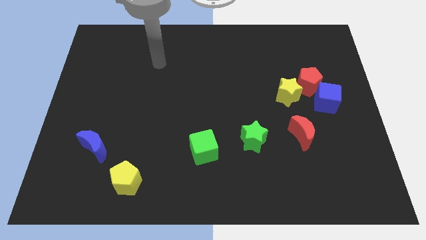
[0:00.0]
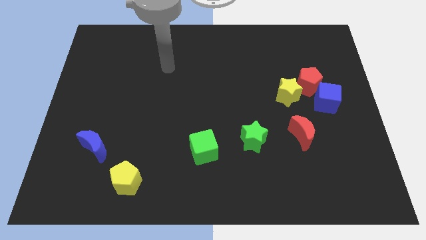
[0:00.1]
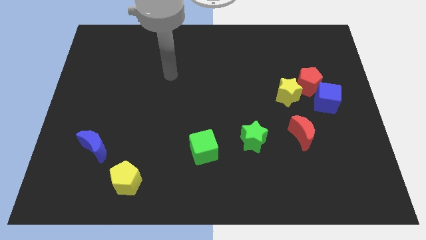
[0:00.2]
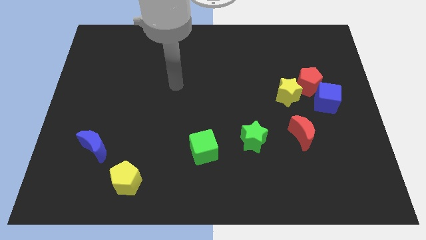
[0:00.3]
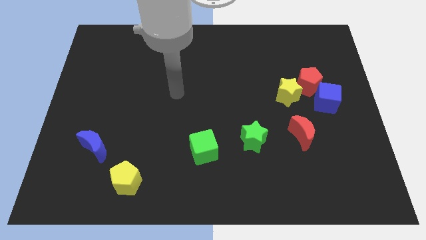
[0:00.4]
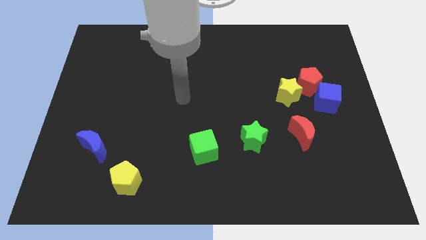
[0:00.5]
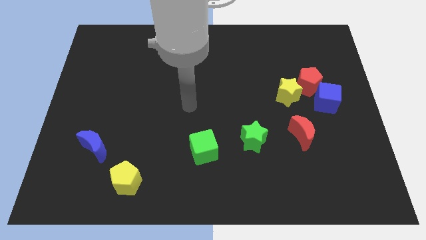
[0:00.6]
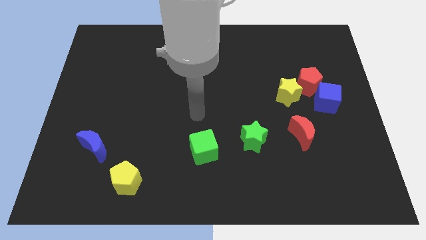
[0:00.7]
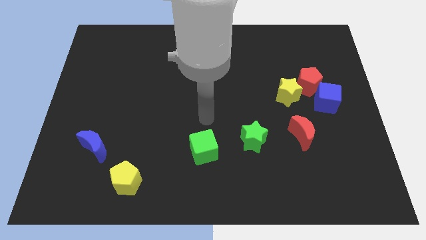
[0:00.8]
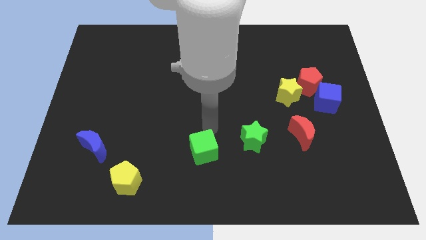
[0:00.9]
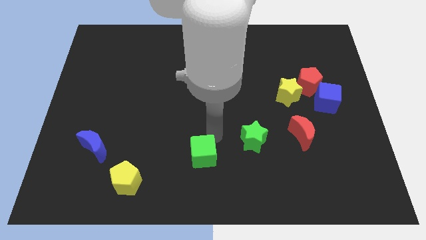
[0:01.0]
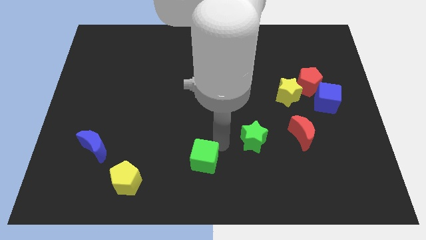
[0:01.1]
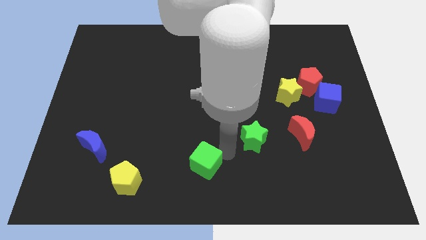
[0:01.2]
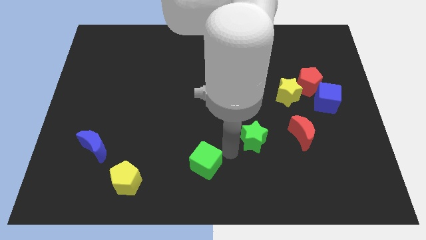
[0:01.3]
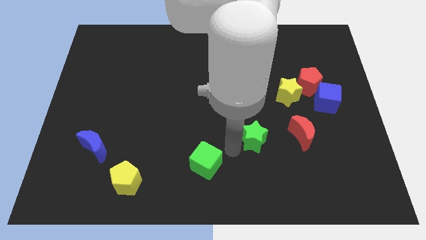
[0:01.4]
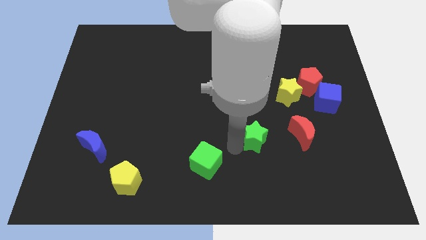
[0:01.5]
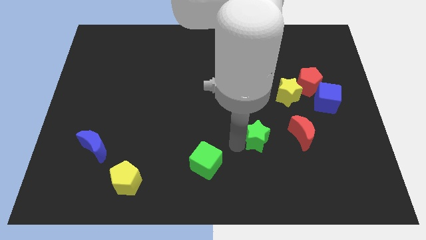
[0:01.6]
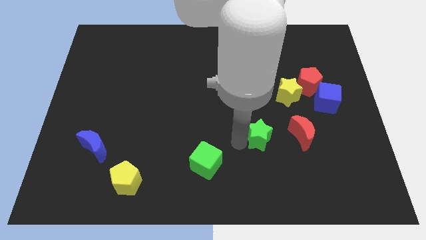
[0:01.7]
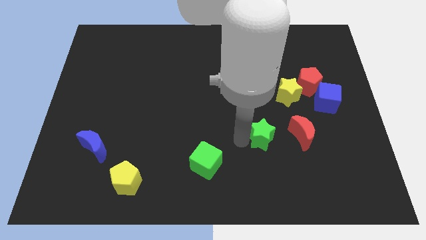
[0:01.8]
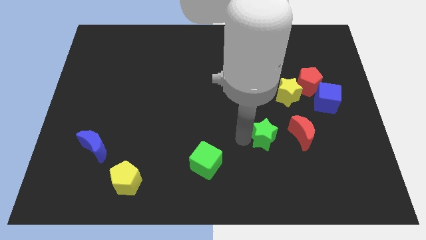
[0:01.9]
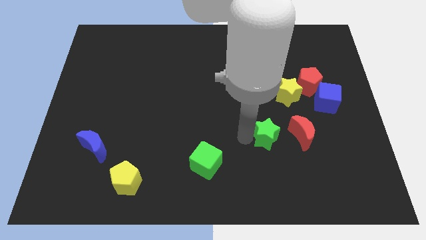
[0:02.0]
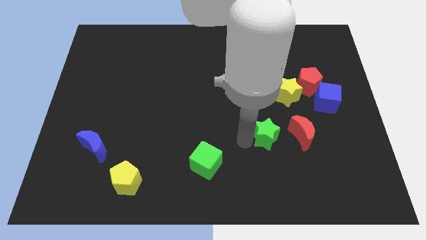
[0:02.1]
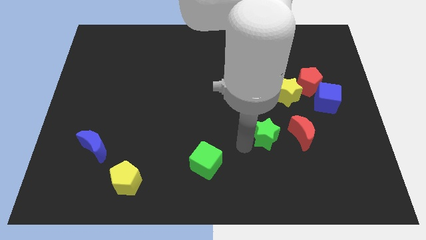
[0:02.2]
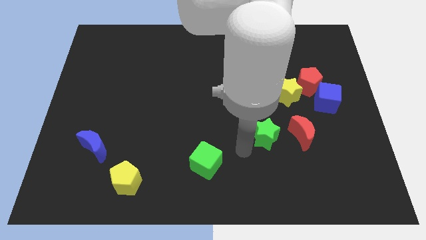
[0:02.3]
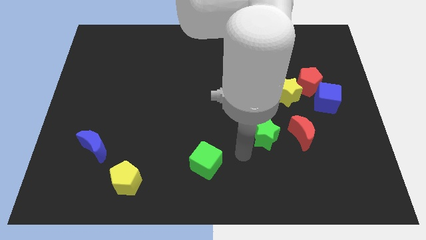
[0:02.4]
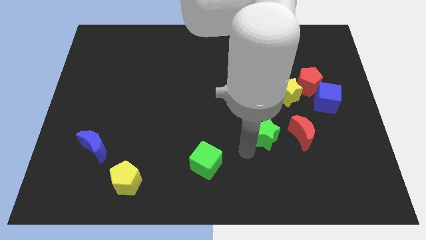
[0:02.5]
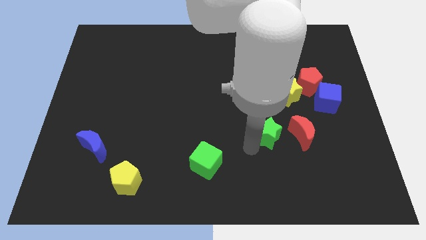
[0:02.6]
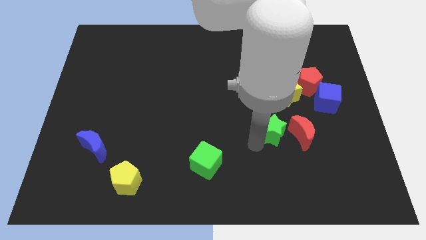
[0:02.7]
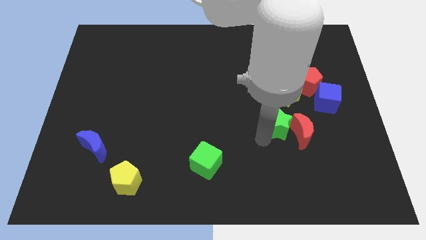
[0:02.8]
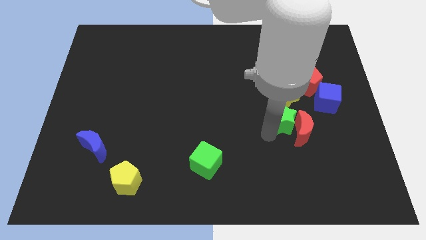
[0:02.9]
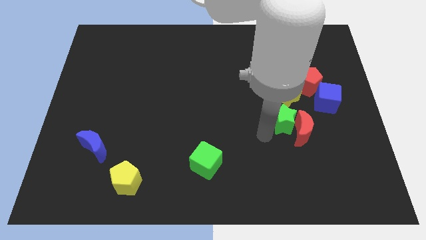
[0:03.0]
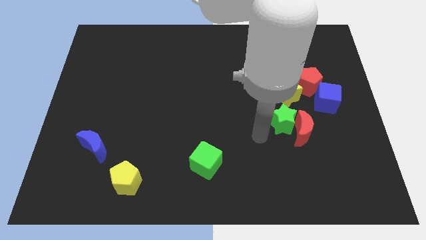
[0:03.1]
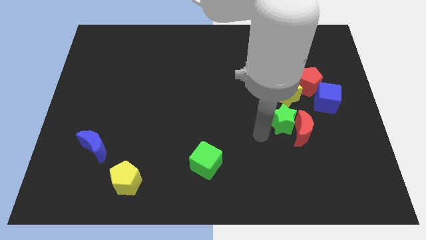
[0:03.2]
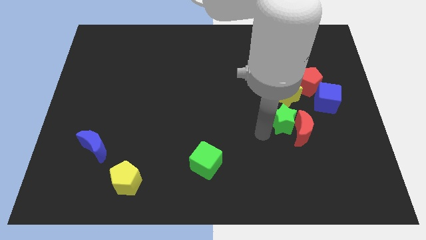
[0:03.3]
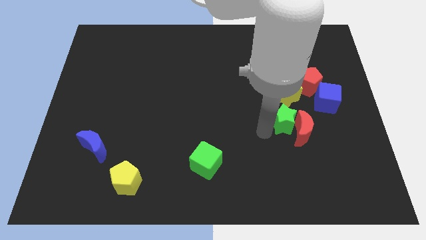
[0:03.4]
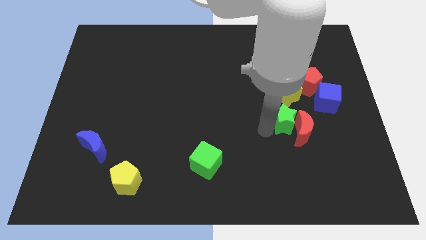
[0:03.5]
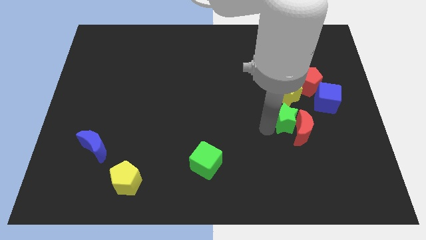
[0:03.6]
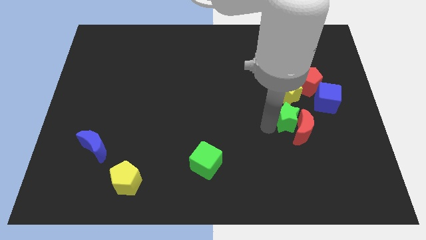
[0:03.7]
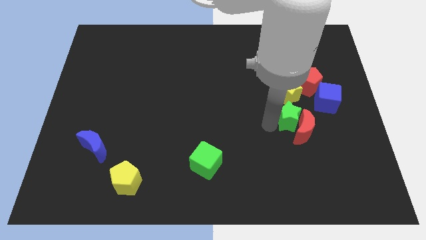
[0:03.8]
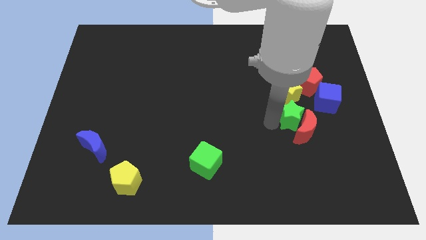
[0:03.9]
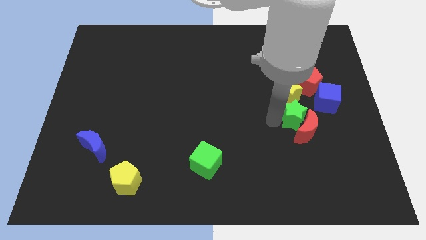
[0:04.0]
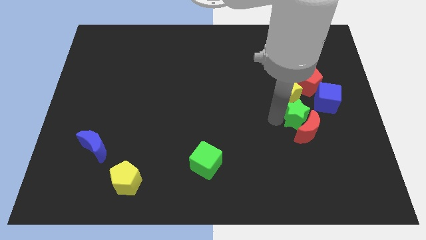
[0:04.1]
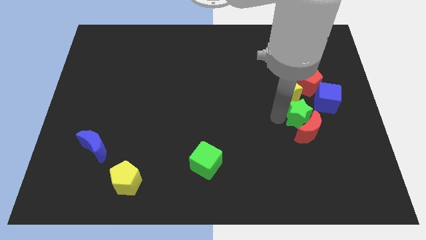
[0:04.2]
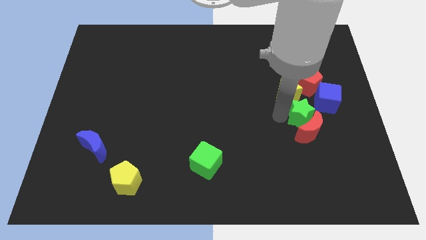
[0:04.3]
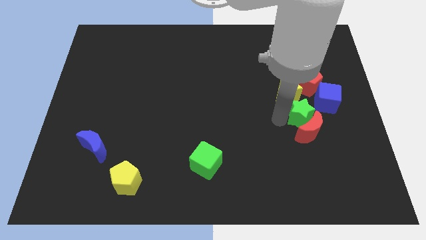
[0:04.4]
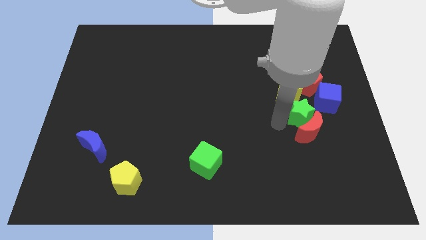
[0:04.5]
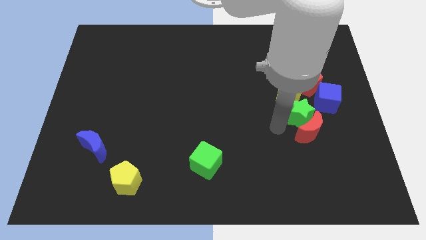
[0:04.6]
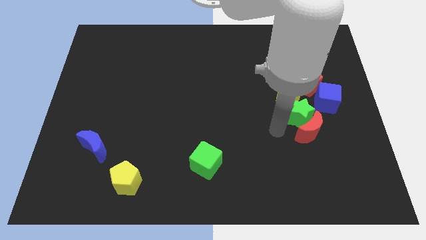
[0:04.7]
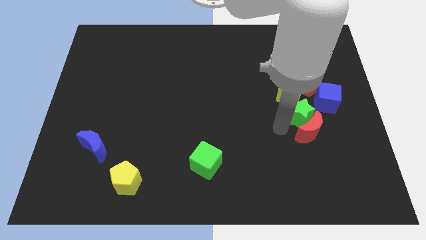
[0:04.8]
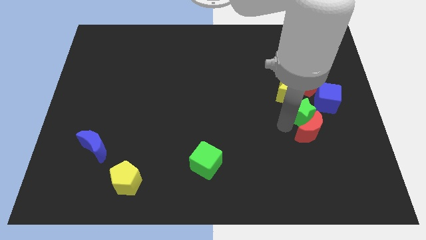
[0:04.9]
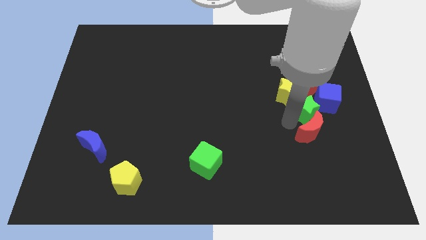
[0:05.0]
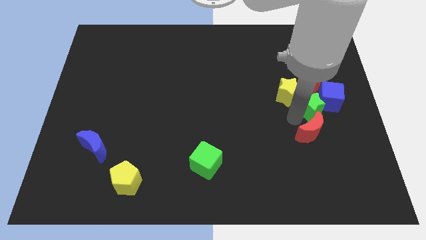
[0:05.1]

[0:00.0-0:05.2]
move the green star next to the blue cube

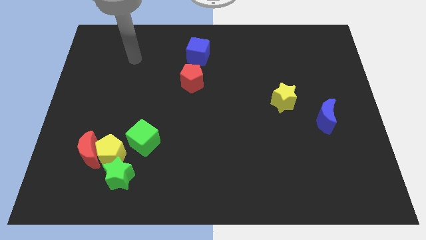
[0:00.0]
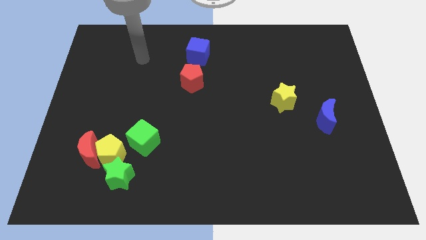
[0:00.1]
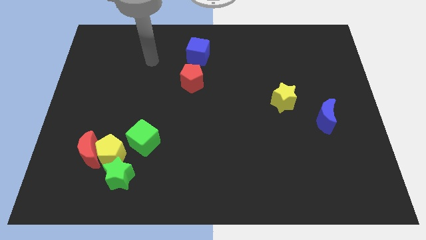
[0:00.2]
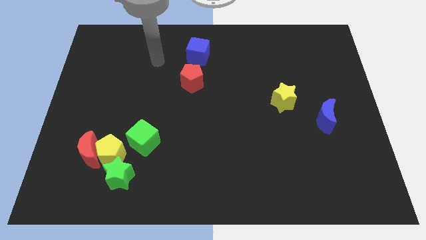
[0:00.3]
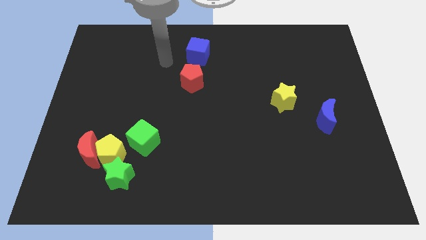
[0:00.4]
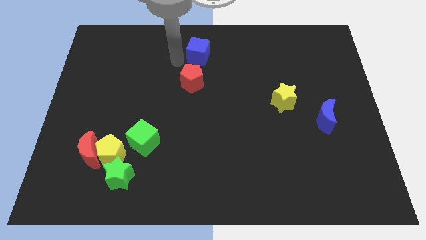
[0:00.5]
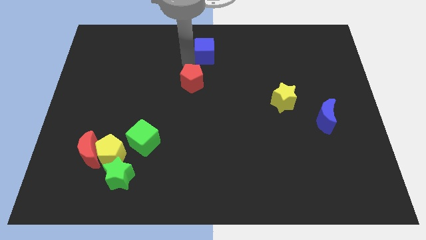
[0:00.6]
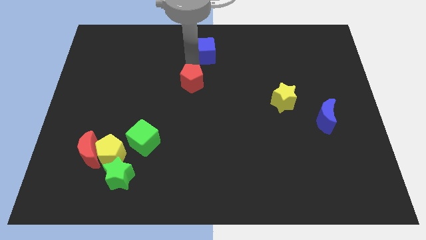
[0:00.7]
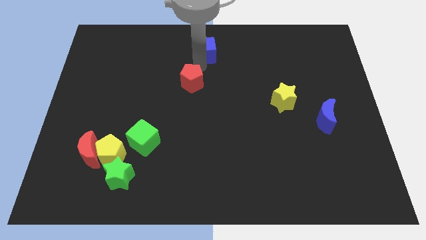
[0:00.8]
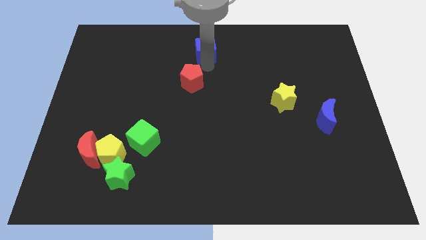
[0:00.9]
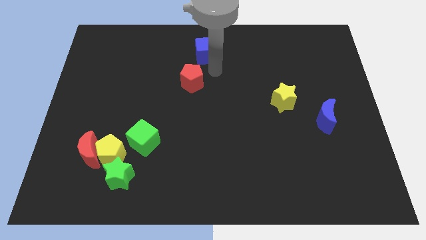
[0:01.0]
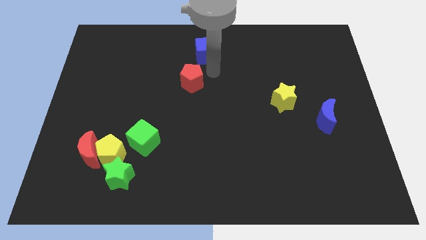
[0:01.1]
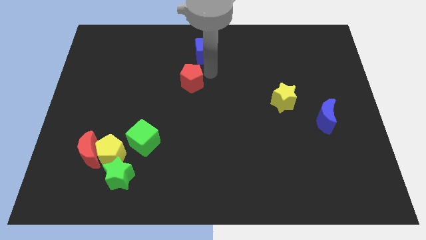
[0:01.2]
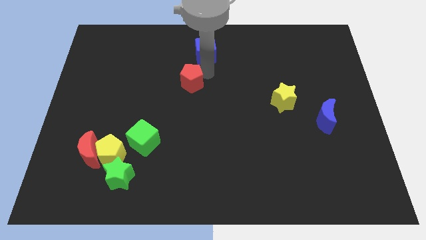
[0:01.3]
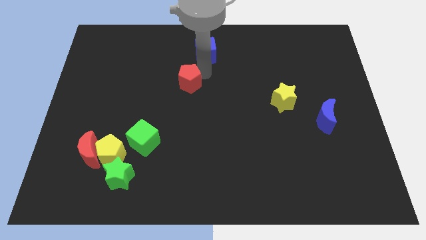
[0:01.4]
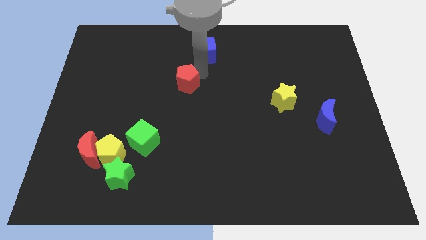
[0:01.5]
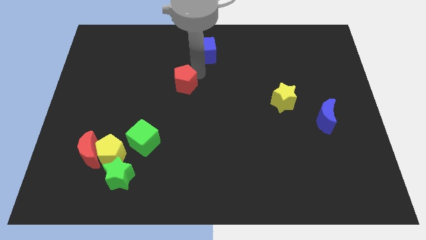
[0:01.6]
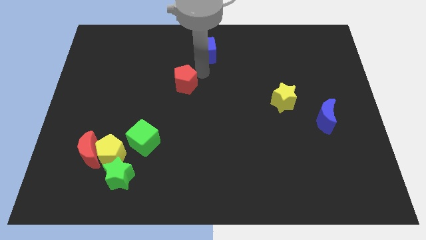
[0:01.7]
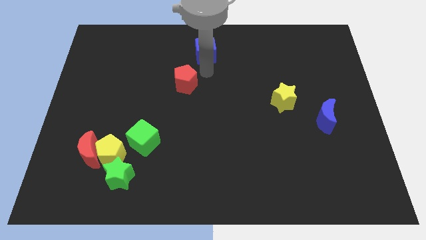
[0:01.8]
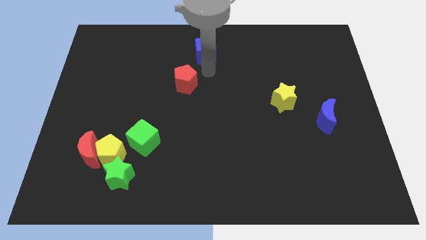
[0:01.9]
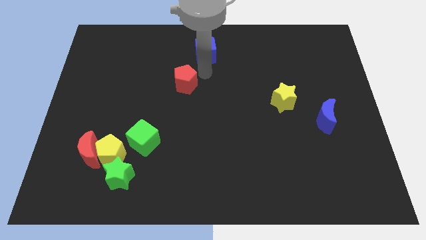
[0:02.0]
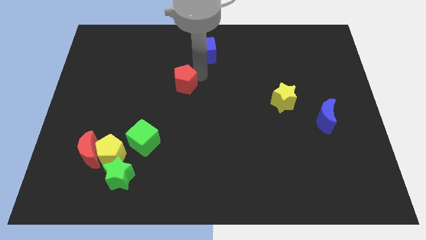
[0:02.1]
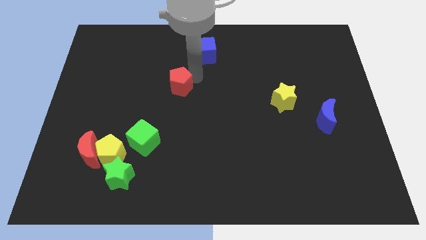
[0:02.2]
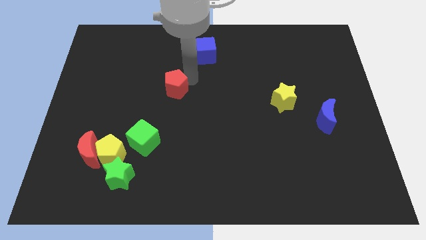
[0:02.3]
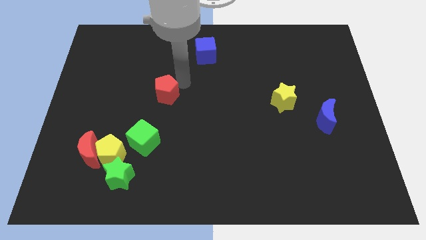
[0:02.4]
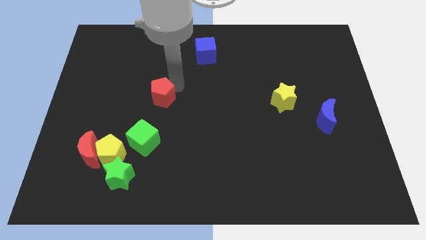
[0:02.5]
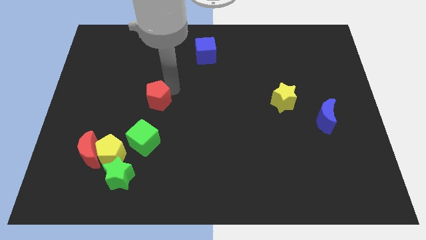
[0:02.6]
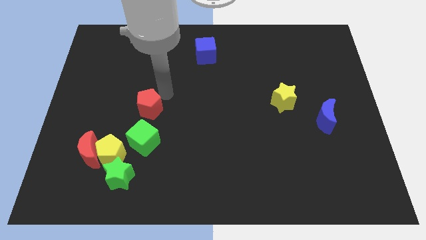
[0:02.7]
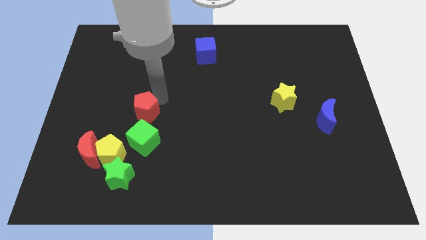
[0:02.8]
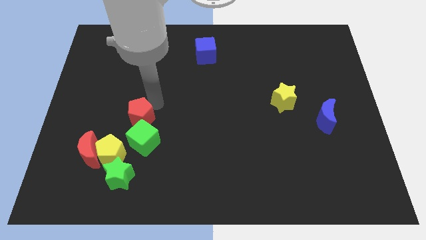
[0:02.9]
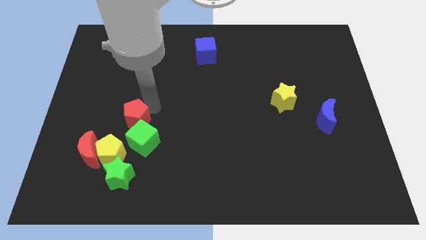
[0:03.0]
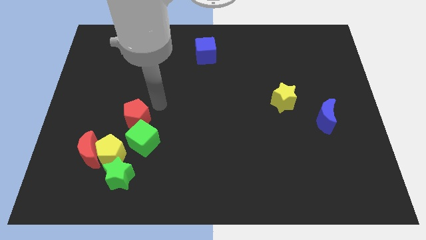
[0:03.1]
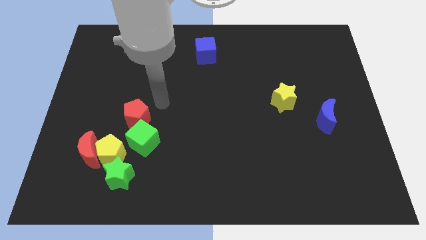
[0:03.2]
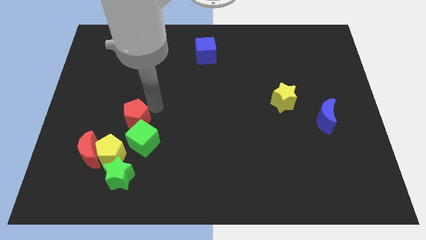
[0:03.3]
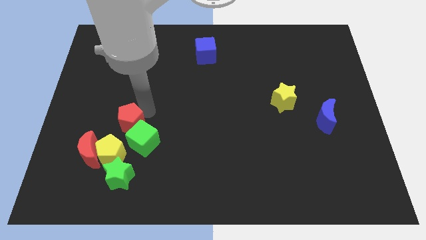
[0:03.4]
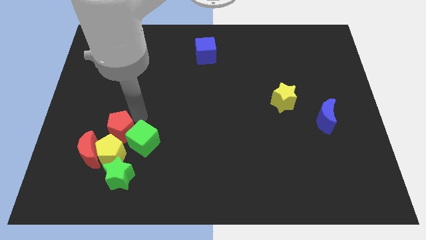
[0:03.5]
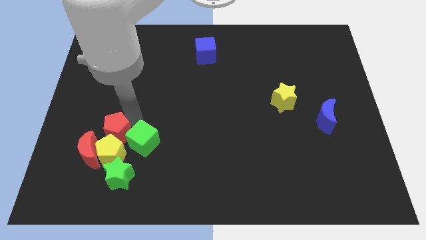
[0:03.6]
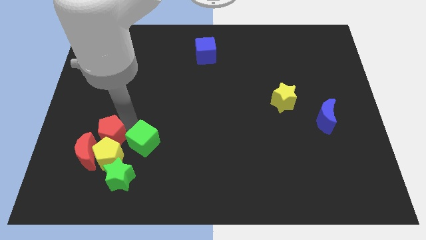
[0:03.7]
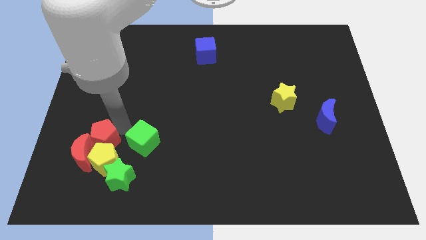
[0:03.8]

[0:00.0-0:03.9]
move the red pentagon close to the red moon
